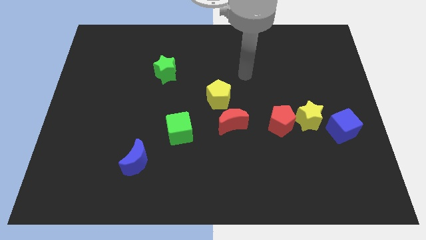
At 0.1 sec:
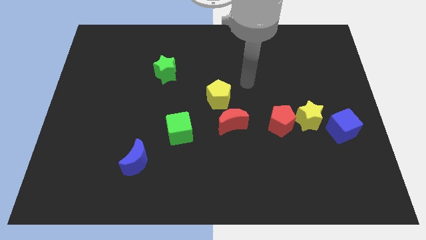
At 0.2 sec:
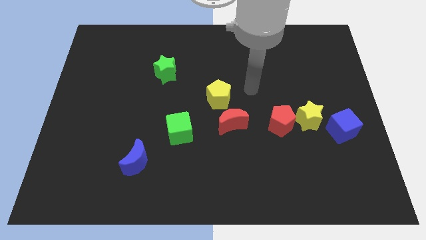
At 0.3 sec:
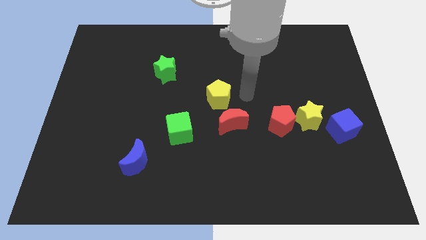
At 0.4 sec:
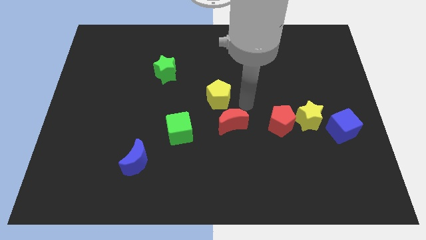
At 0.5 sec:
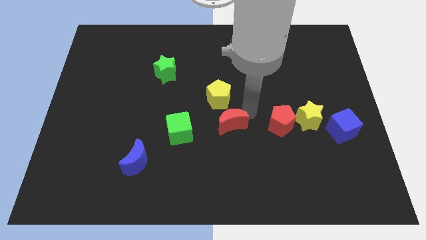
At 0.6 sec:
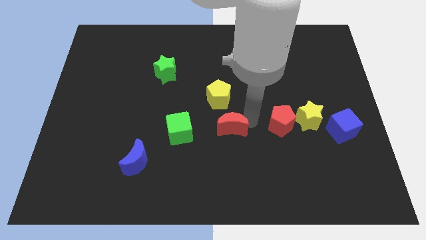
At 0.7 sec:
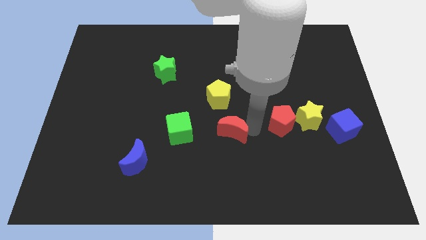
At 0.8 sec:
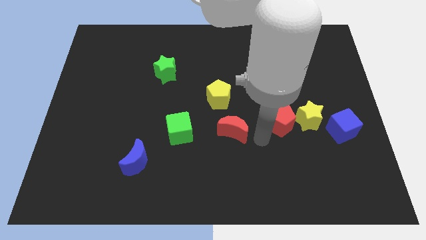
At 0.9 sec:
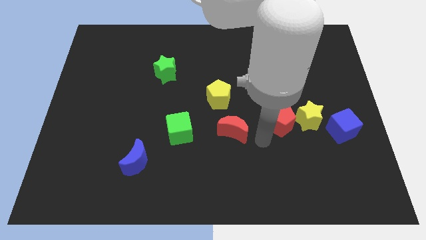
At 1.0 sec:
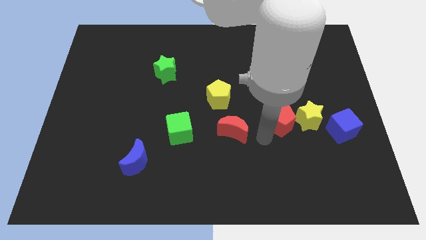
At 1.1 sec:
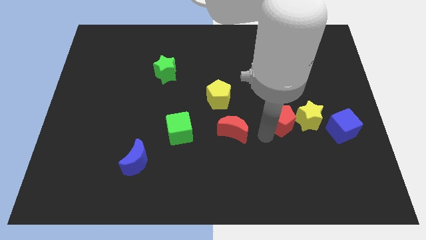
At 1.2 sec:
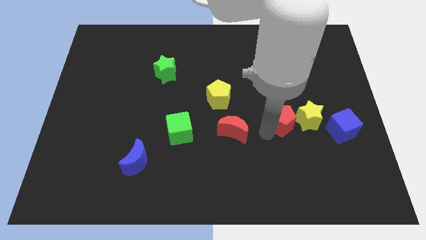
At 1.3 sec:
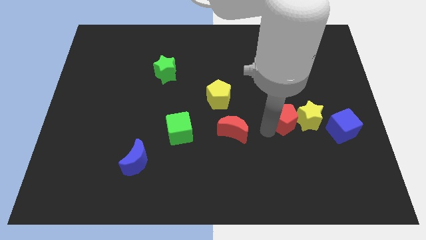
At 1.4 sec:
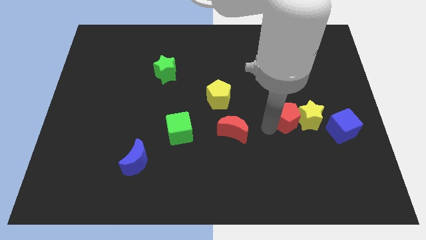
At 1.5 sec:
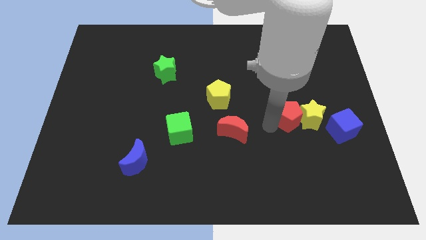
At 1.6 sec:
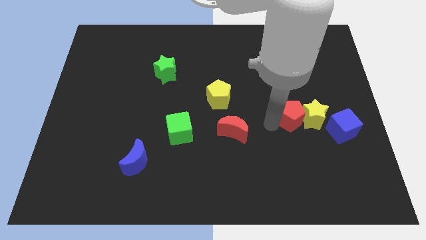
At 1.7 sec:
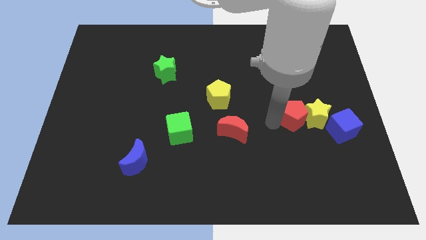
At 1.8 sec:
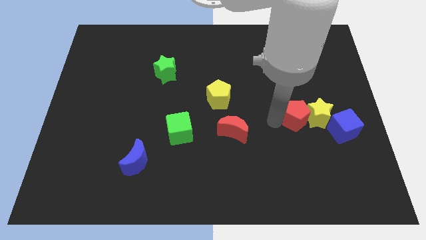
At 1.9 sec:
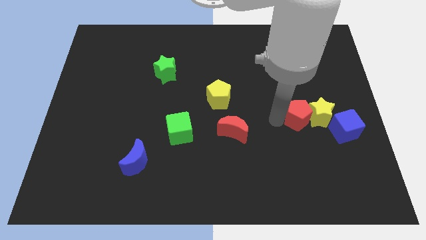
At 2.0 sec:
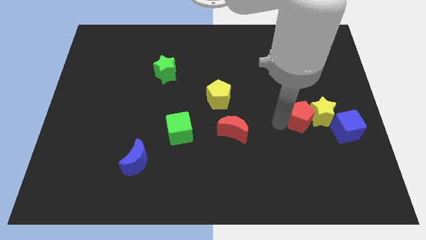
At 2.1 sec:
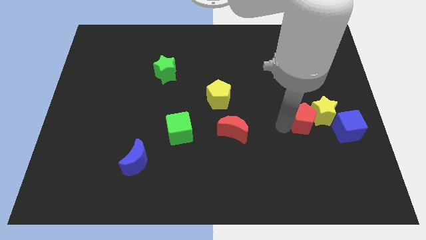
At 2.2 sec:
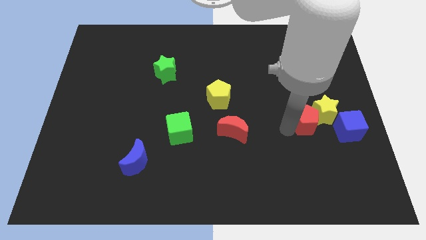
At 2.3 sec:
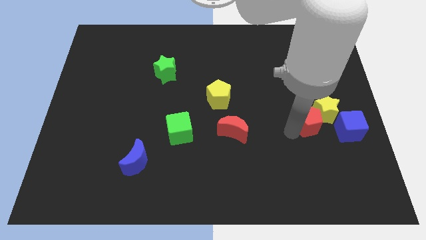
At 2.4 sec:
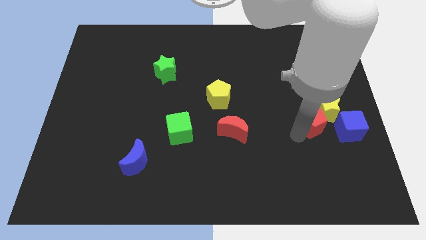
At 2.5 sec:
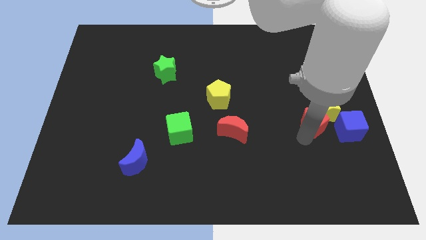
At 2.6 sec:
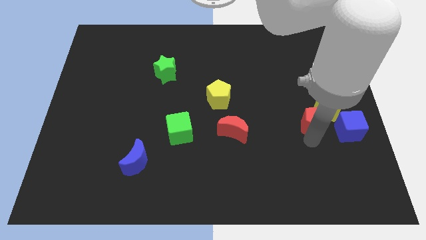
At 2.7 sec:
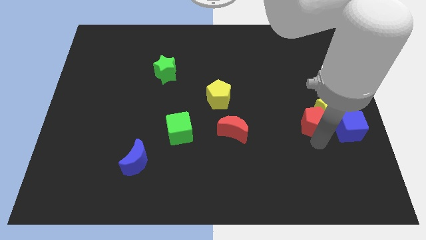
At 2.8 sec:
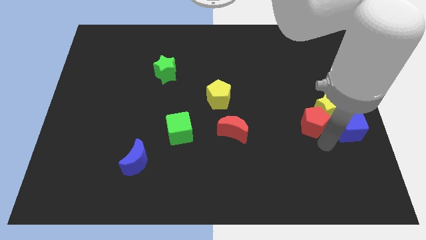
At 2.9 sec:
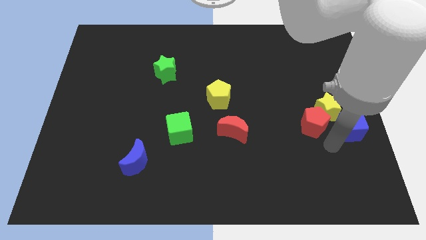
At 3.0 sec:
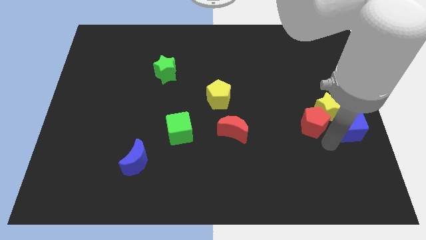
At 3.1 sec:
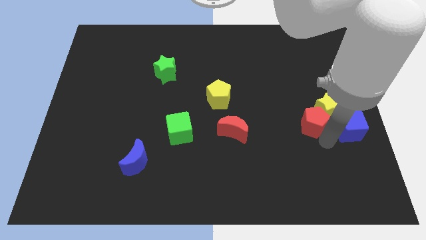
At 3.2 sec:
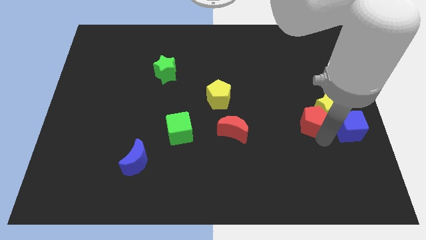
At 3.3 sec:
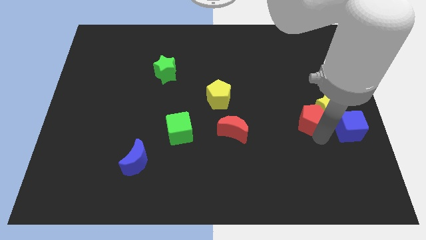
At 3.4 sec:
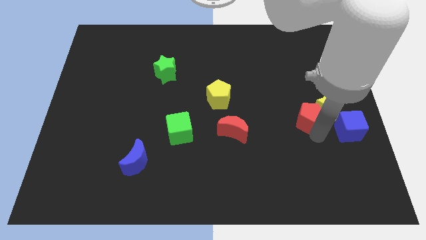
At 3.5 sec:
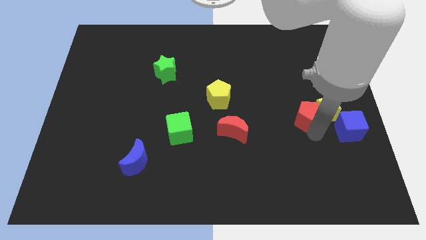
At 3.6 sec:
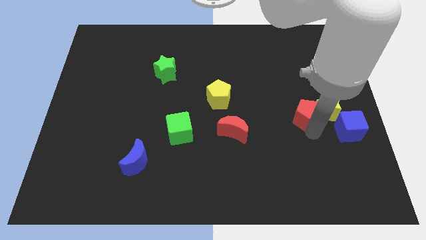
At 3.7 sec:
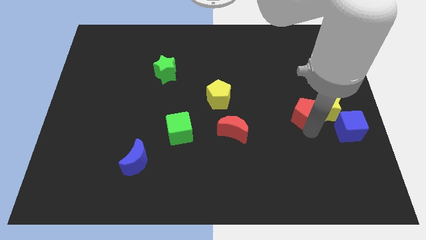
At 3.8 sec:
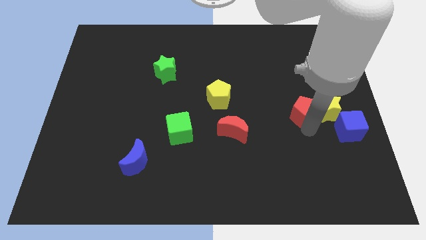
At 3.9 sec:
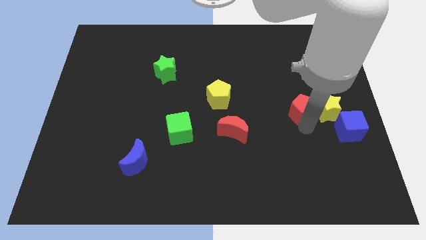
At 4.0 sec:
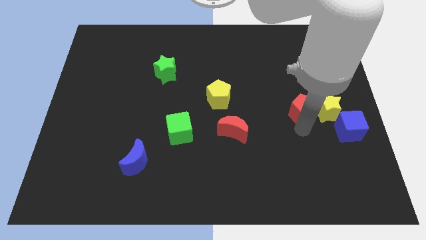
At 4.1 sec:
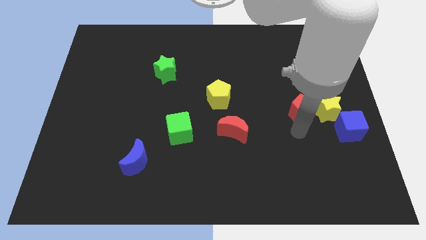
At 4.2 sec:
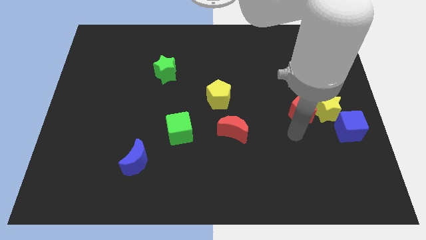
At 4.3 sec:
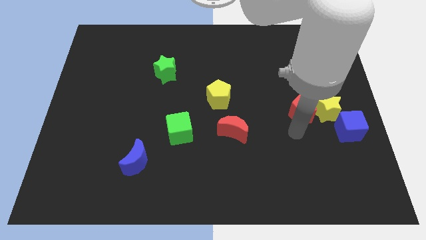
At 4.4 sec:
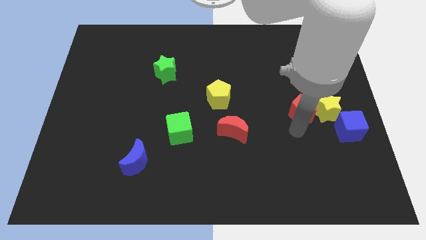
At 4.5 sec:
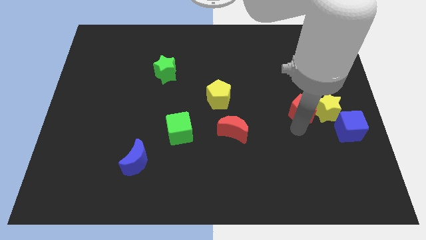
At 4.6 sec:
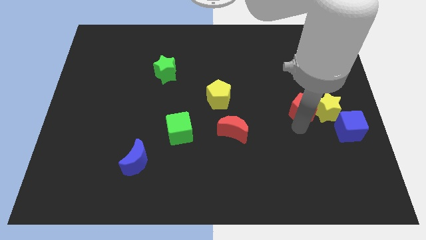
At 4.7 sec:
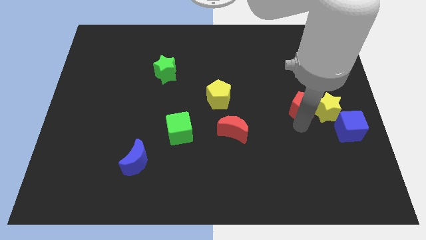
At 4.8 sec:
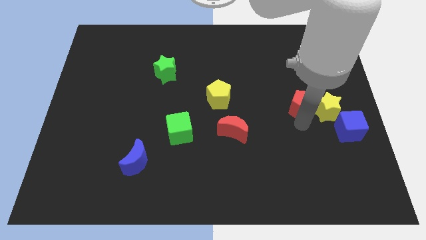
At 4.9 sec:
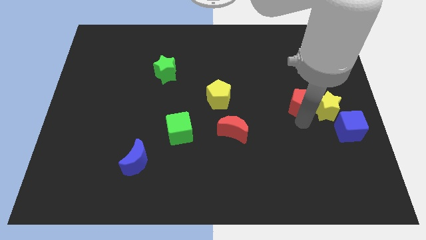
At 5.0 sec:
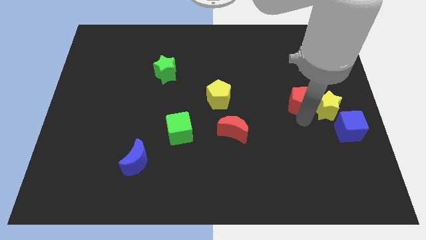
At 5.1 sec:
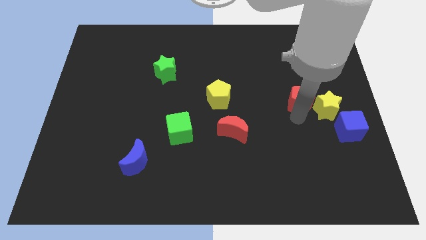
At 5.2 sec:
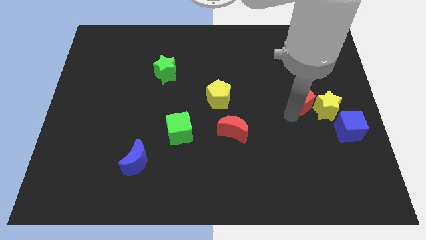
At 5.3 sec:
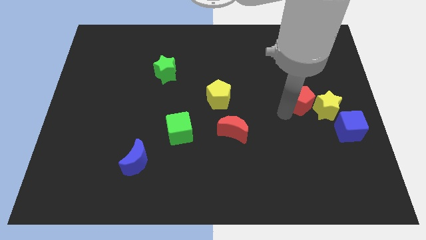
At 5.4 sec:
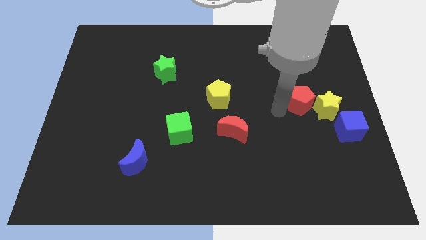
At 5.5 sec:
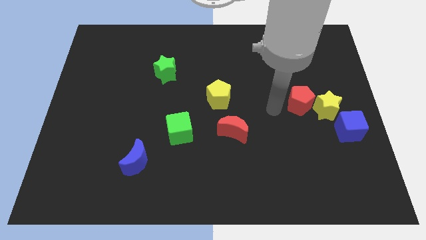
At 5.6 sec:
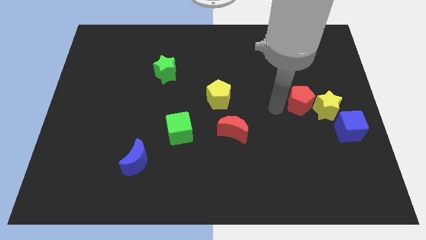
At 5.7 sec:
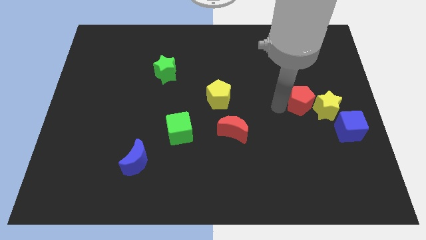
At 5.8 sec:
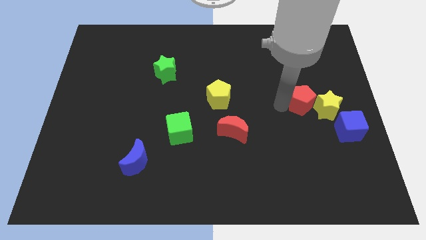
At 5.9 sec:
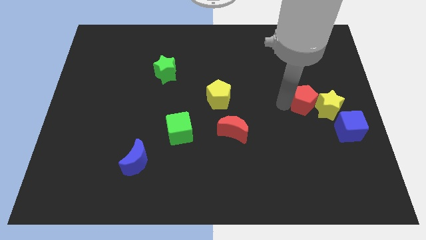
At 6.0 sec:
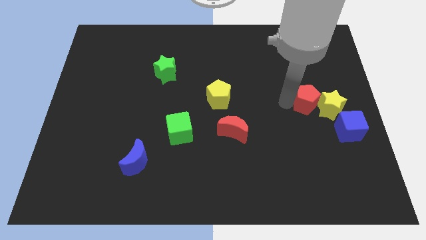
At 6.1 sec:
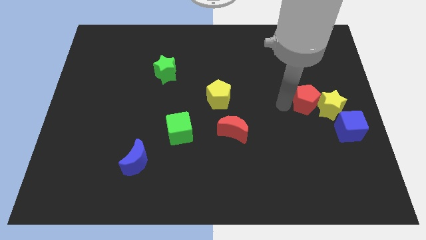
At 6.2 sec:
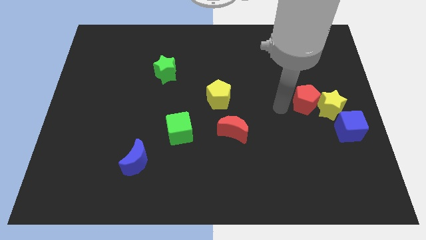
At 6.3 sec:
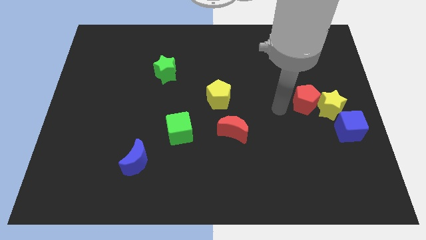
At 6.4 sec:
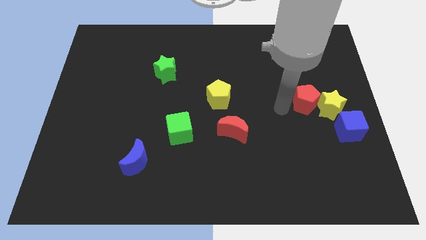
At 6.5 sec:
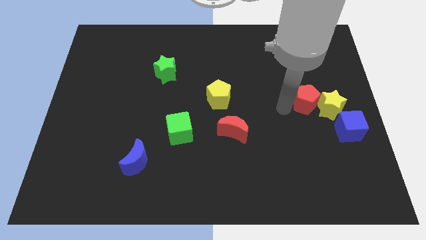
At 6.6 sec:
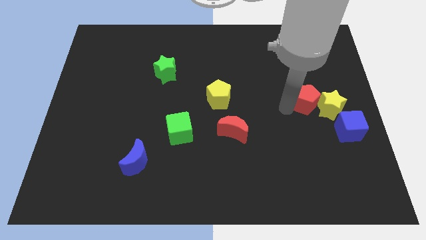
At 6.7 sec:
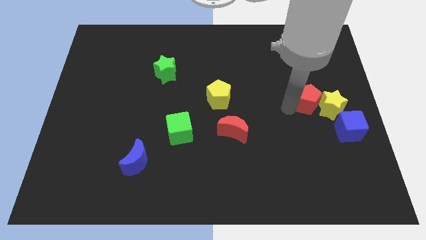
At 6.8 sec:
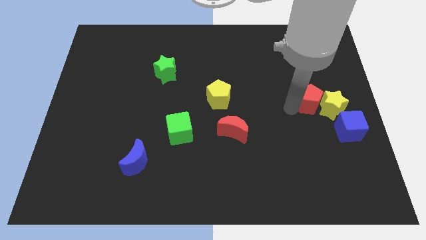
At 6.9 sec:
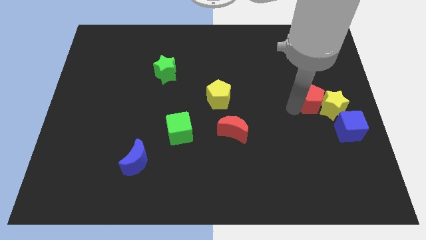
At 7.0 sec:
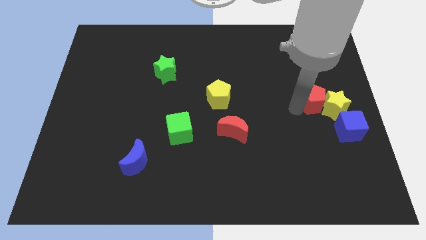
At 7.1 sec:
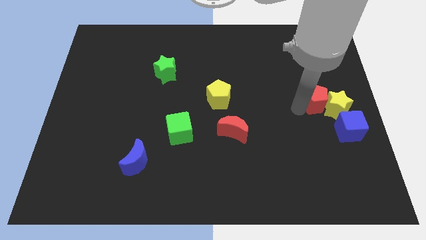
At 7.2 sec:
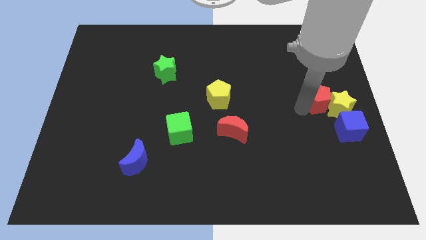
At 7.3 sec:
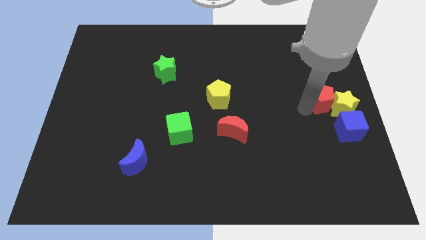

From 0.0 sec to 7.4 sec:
push the red pentagon to the right side of the board
